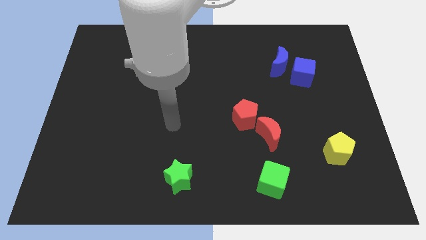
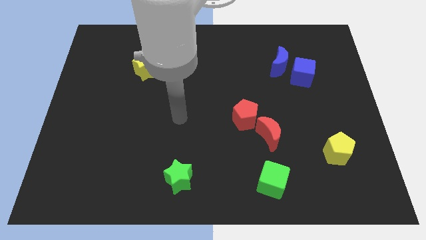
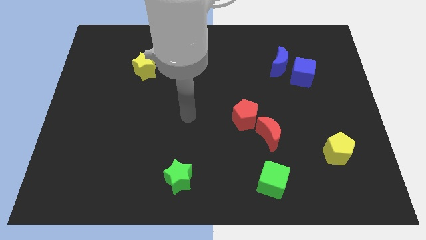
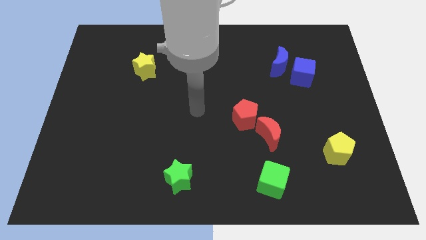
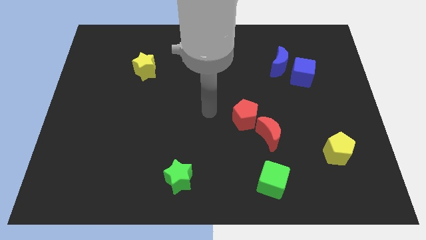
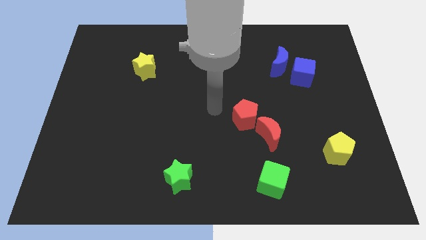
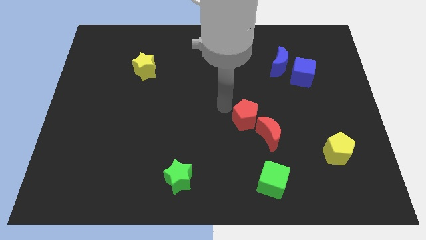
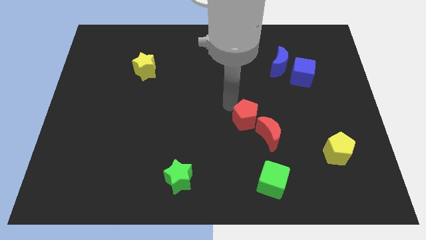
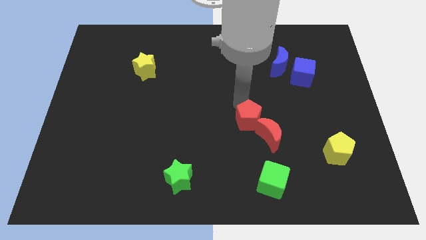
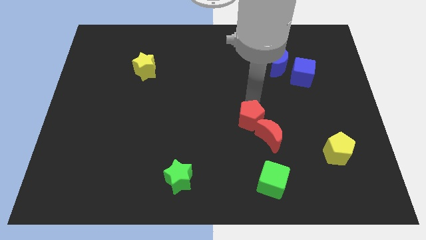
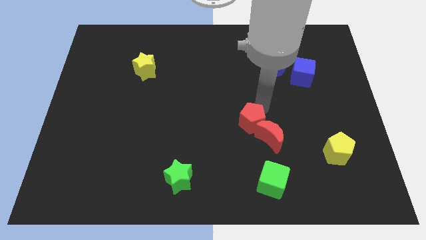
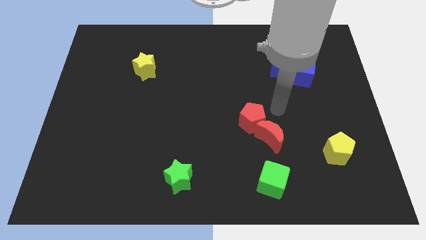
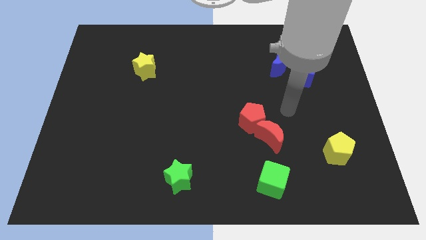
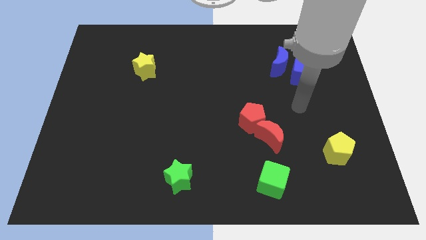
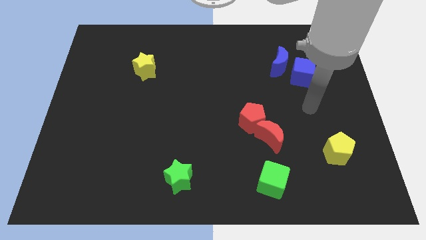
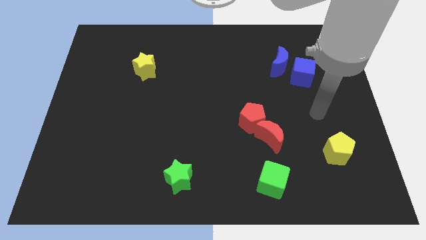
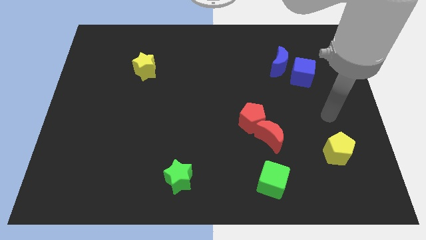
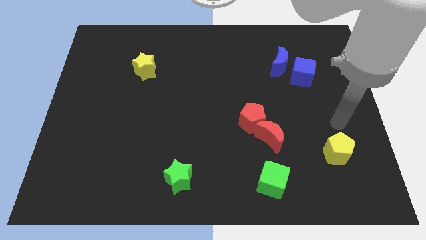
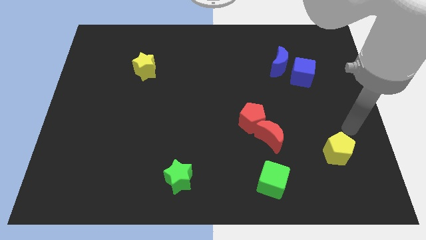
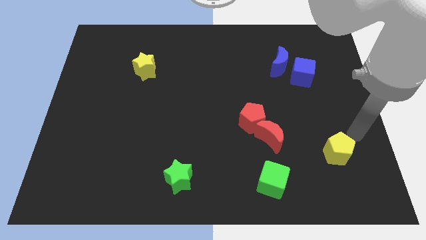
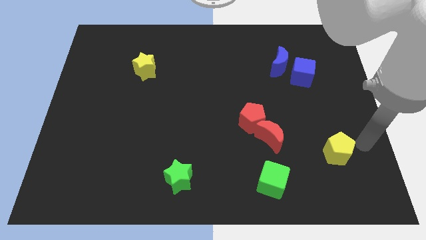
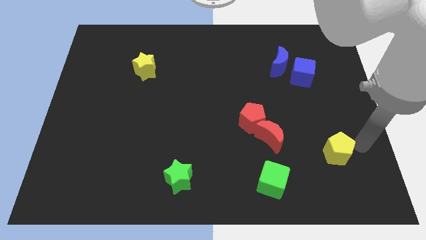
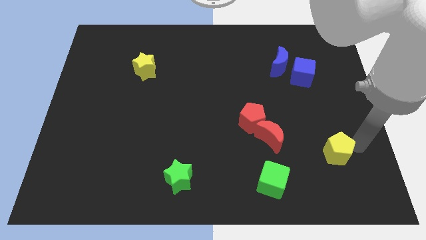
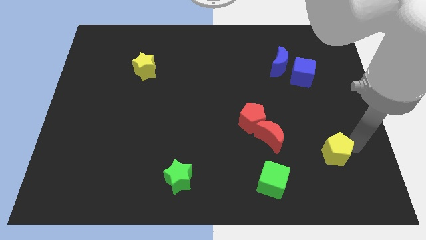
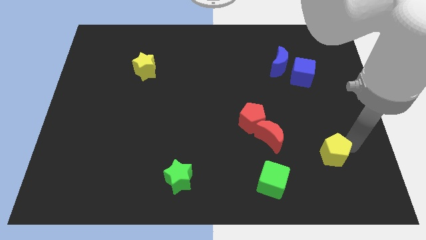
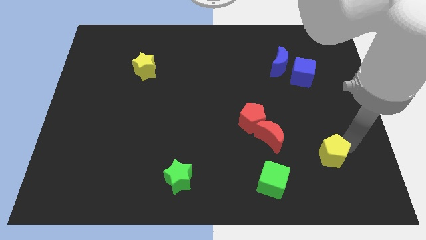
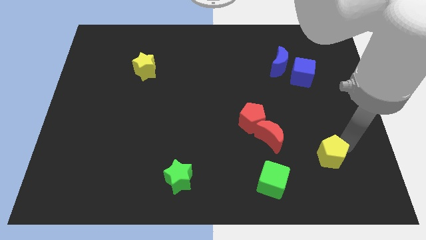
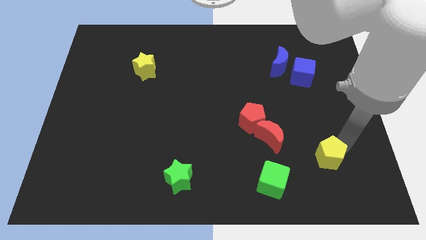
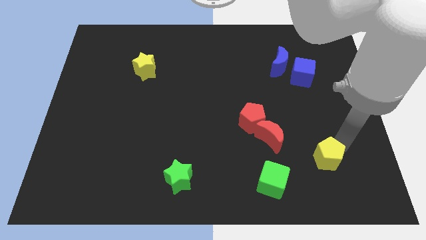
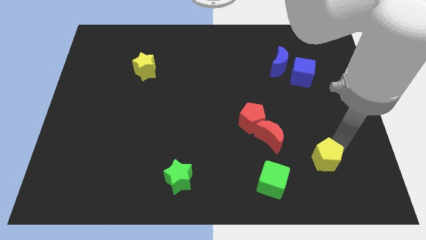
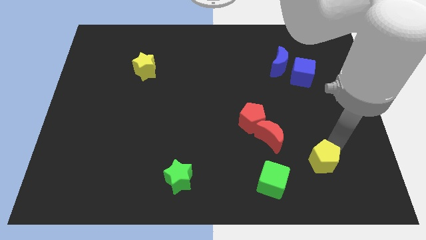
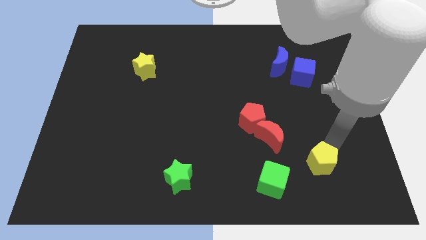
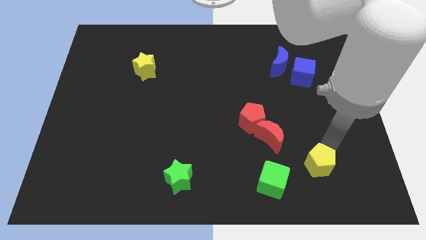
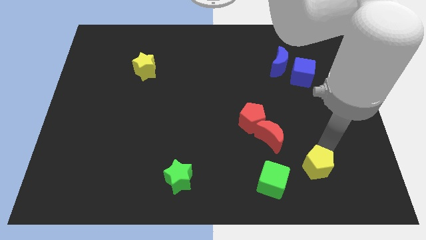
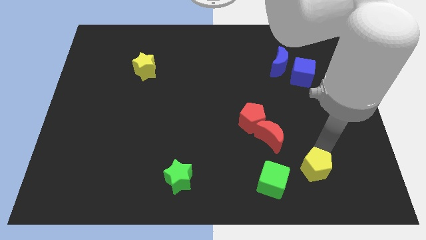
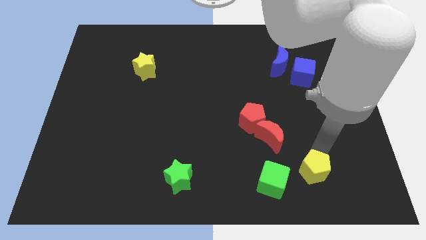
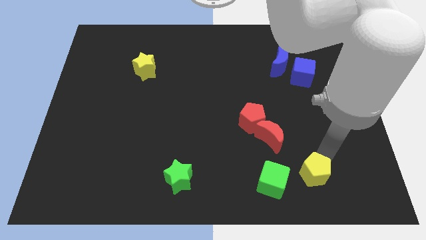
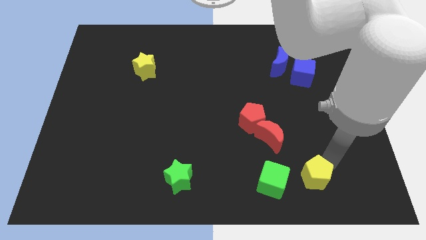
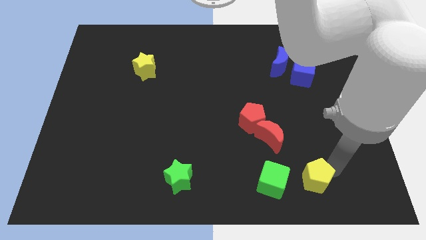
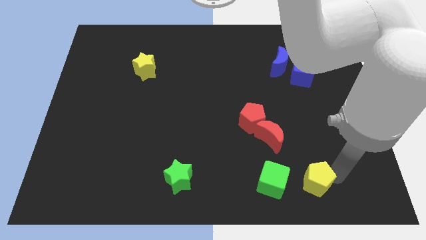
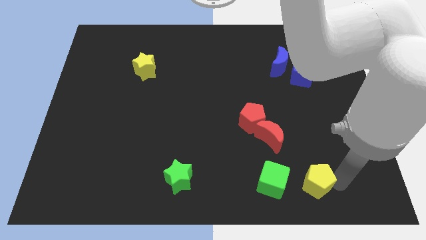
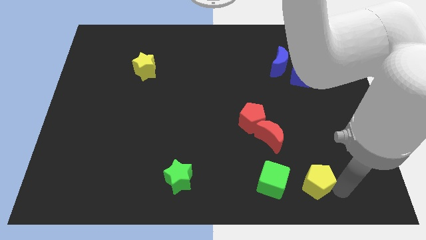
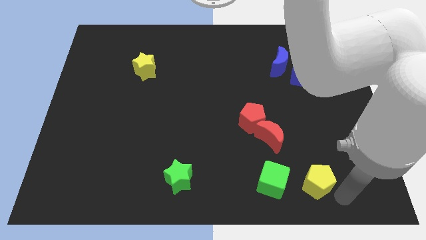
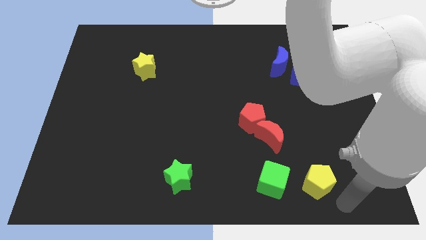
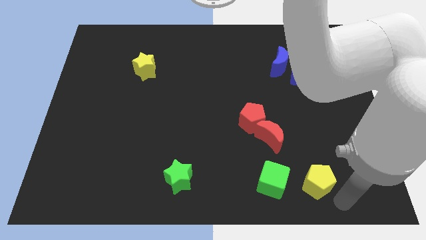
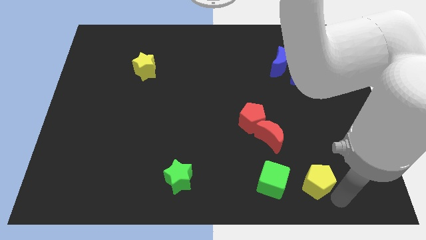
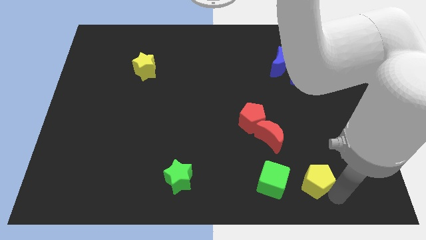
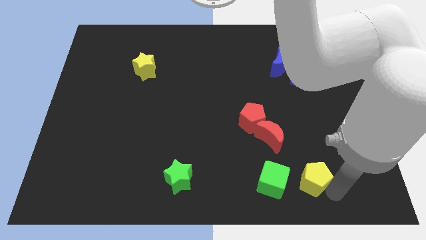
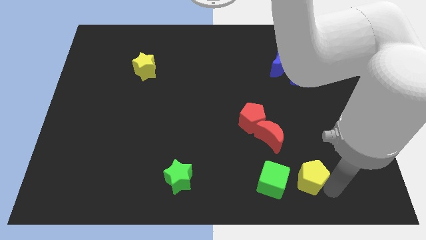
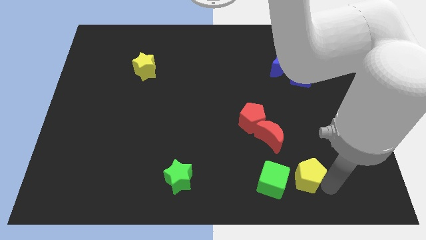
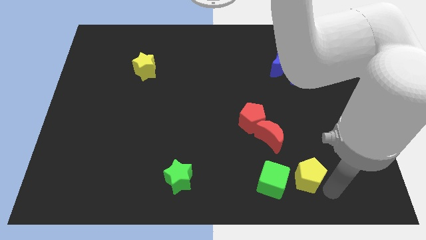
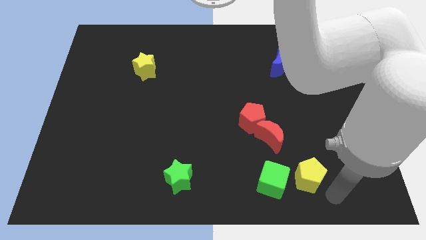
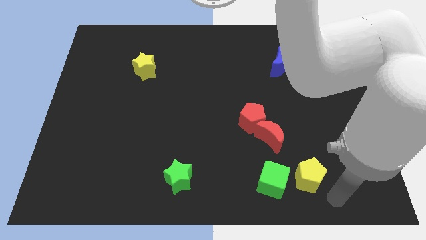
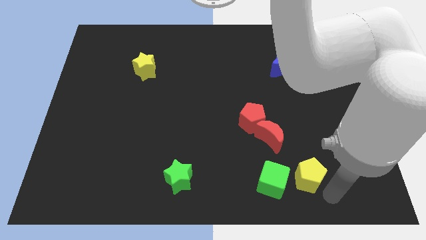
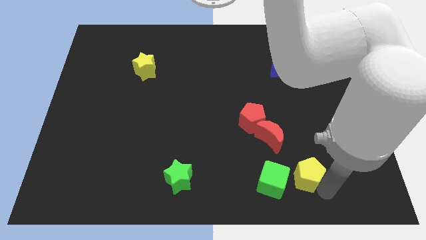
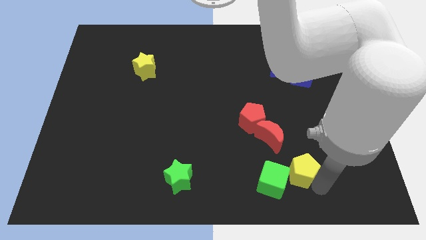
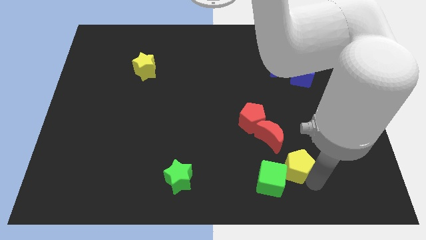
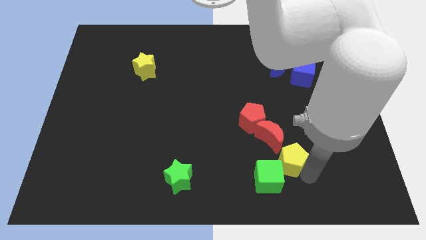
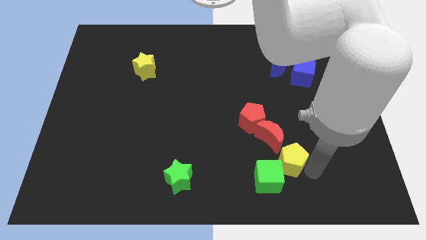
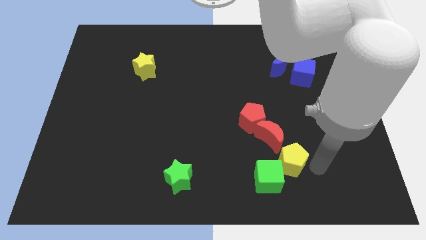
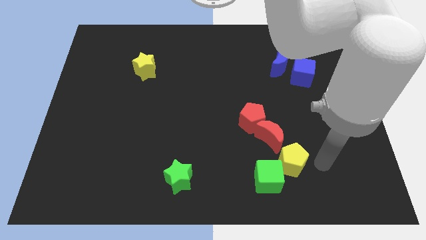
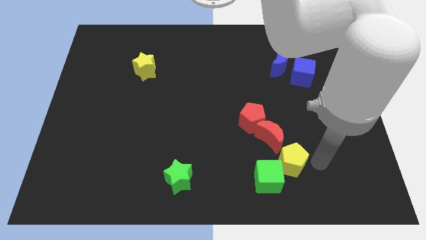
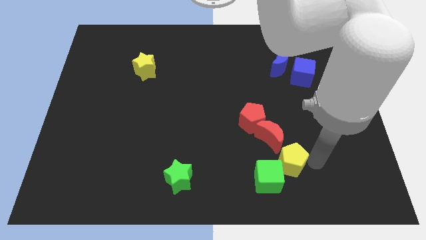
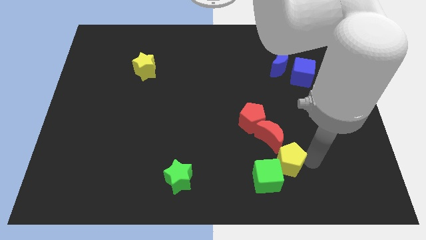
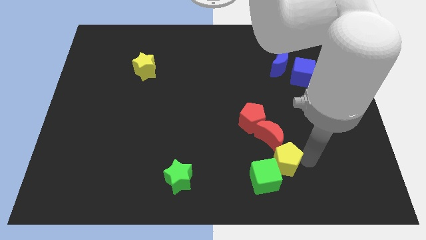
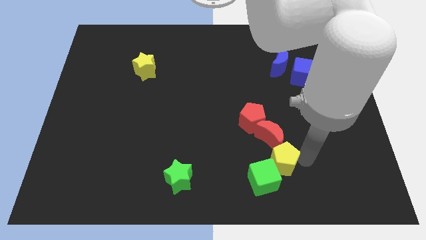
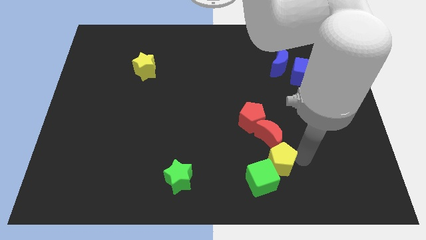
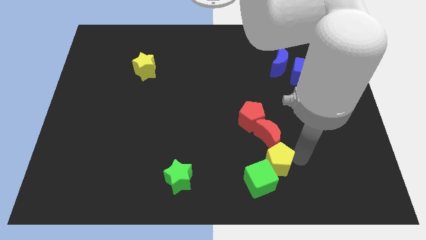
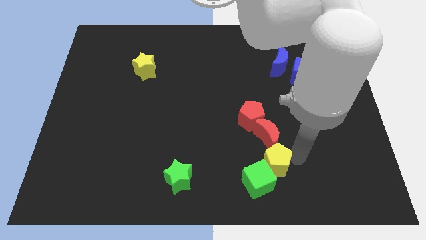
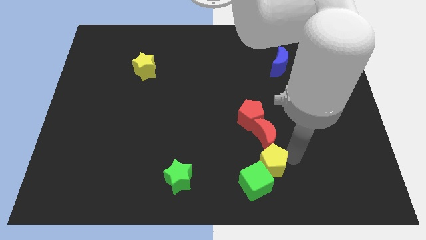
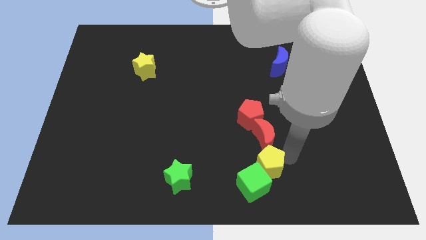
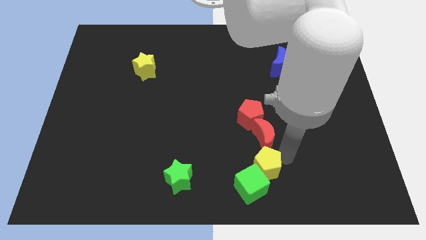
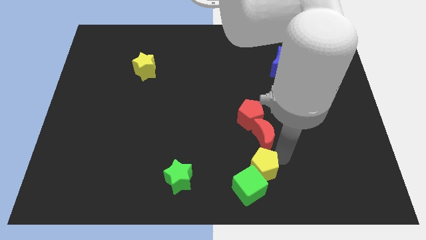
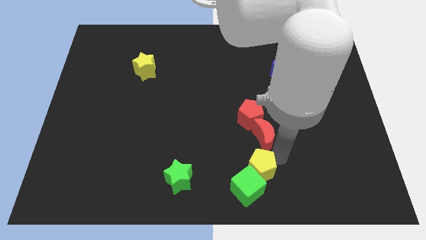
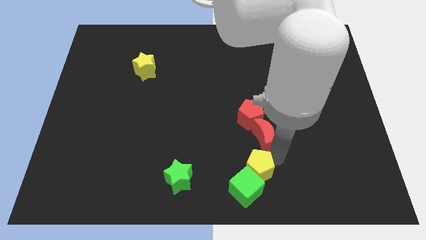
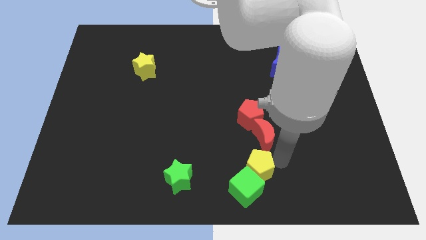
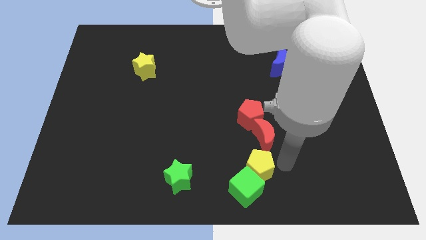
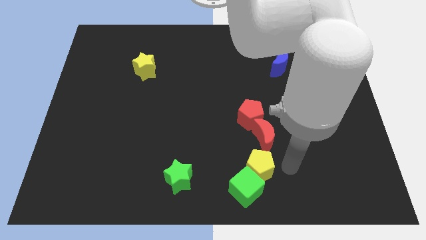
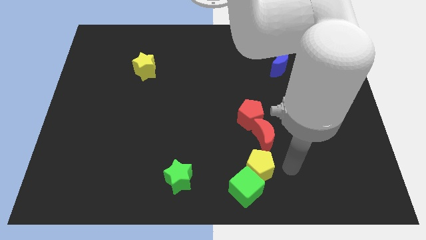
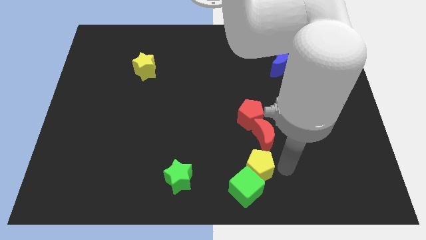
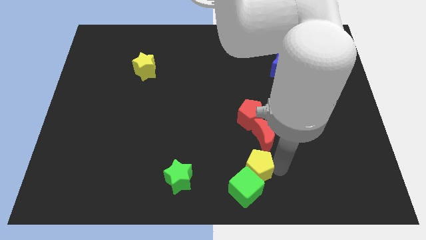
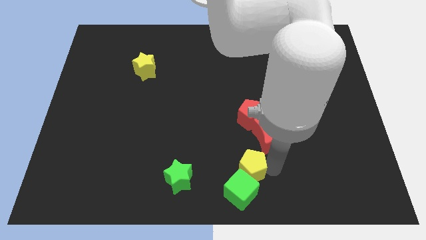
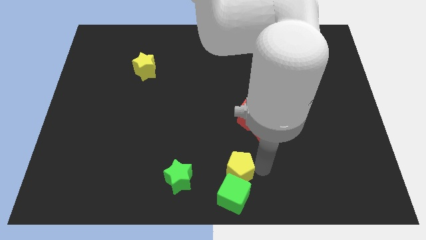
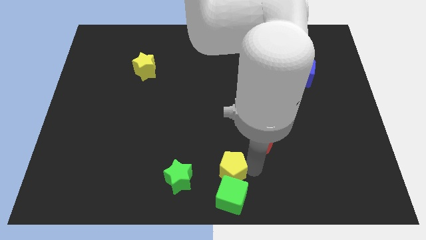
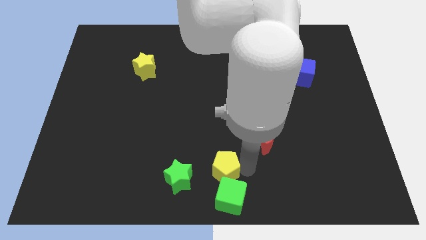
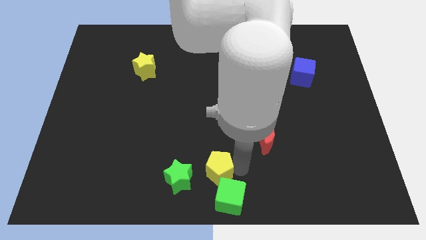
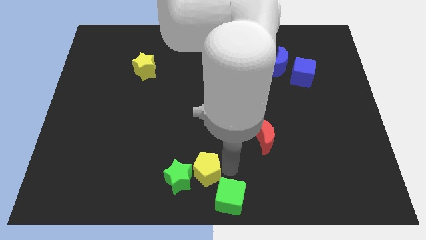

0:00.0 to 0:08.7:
push the yellow pentagon next to the green star
